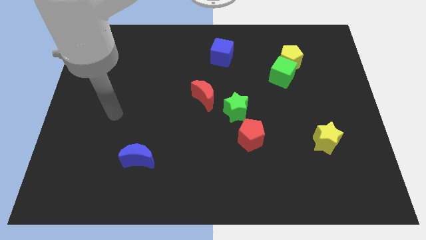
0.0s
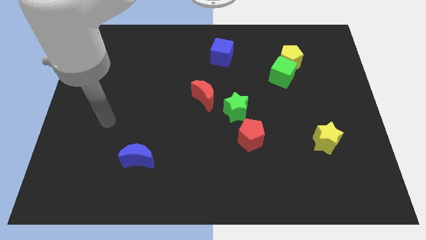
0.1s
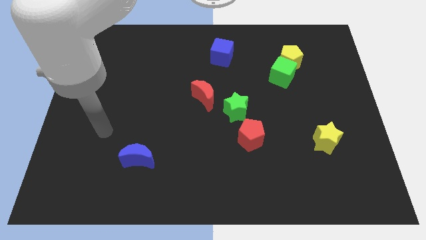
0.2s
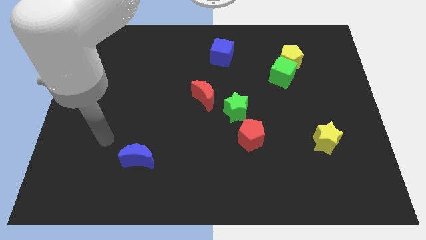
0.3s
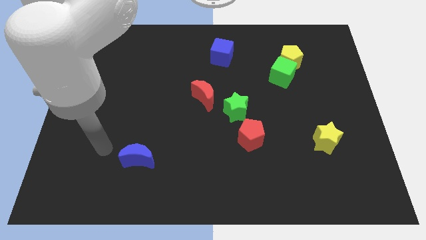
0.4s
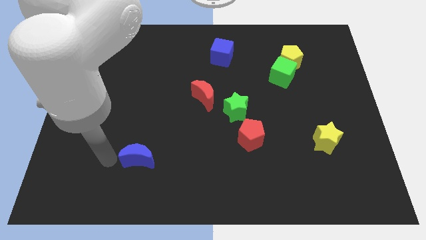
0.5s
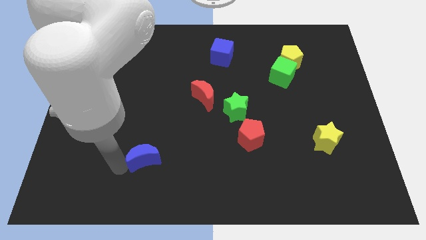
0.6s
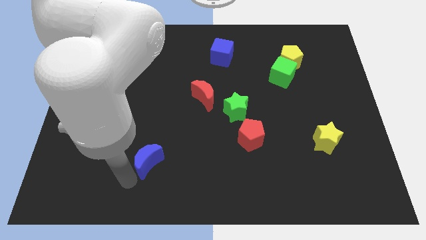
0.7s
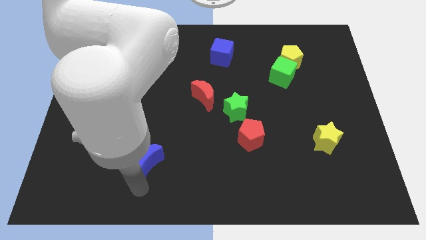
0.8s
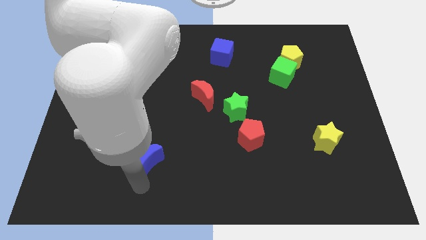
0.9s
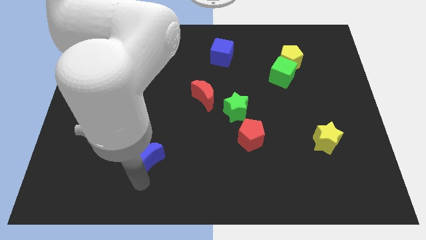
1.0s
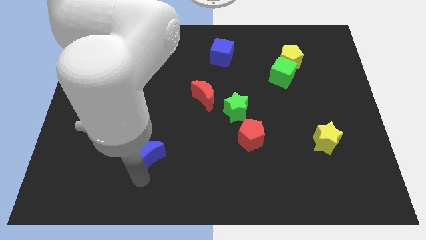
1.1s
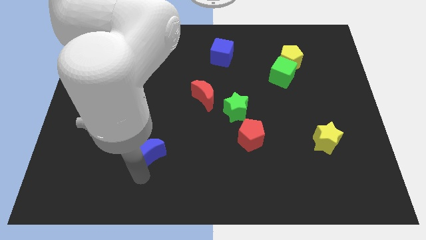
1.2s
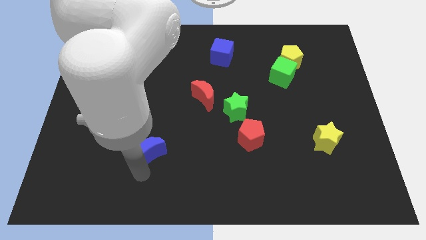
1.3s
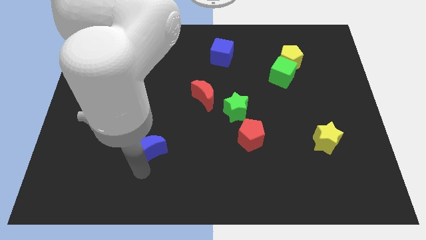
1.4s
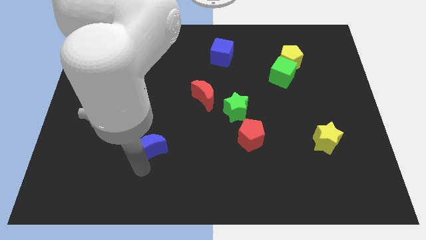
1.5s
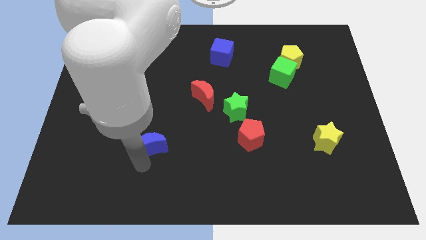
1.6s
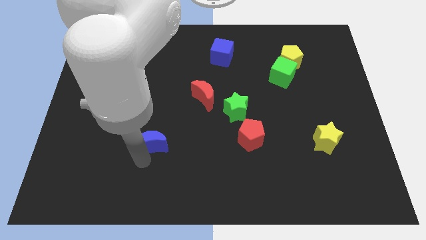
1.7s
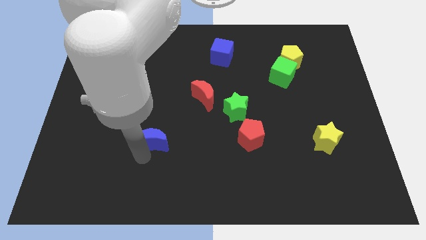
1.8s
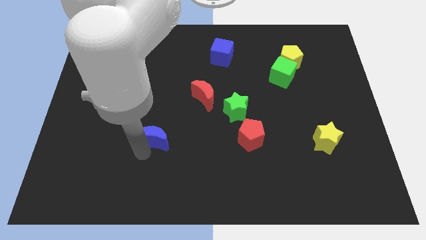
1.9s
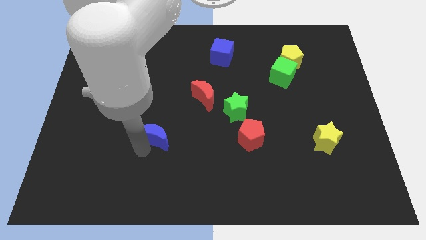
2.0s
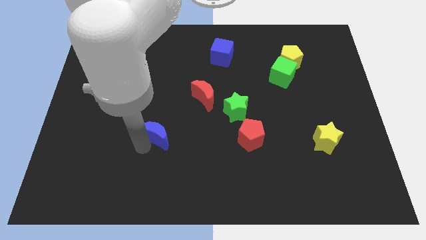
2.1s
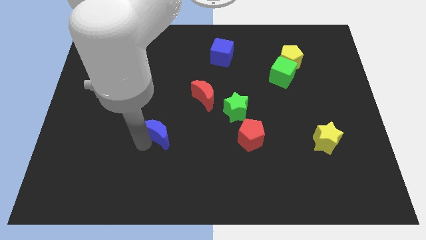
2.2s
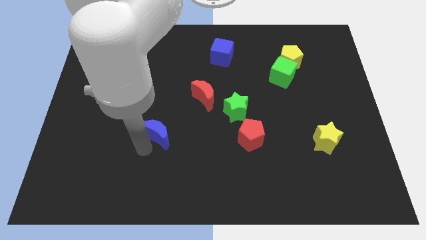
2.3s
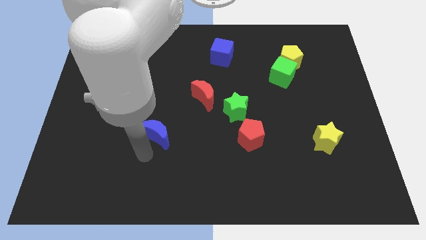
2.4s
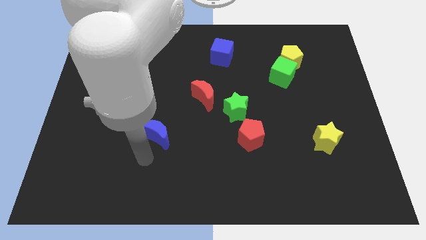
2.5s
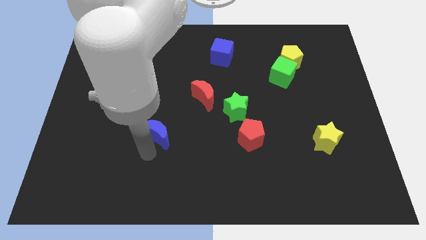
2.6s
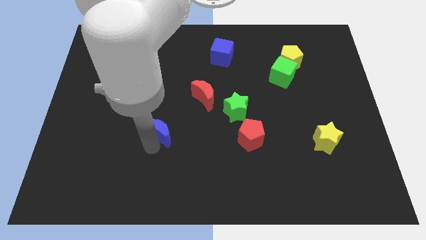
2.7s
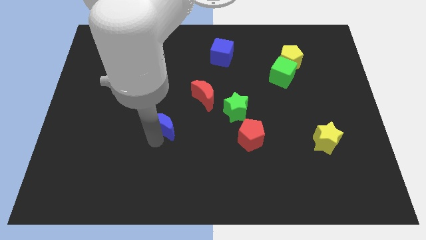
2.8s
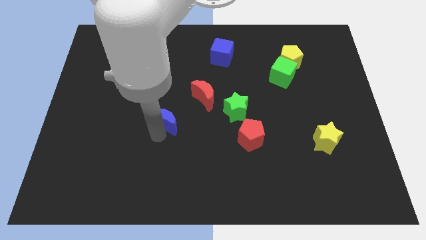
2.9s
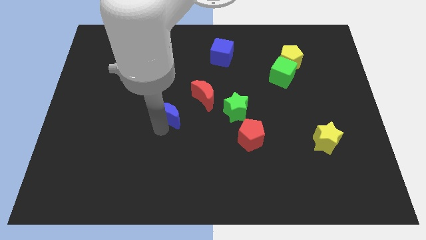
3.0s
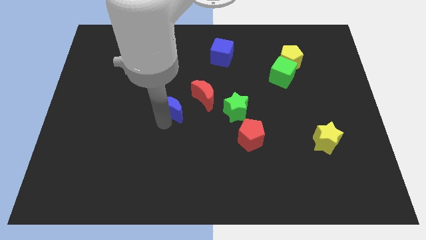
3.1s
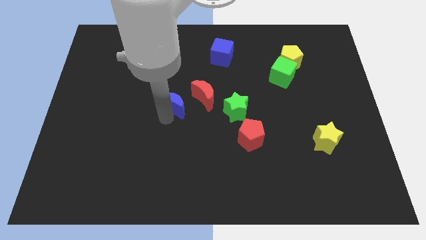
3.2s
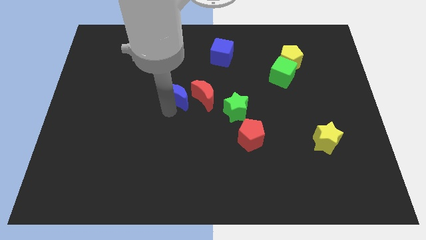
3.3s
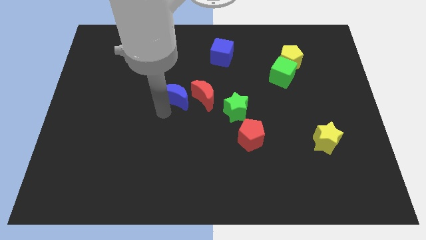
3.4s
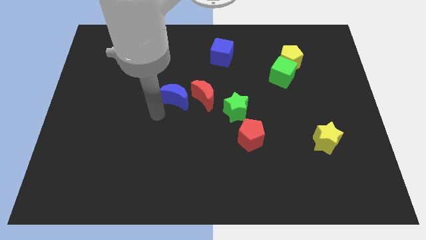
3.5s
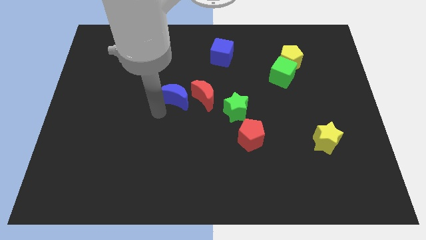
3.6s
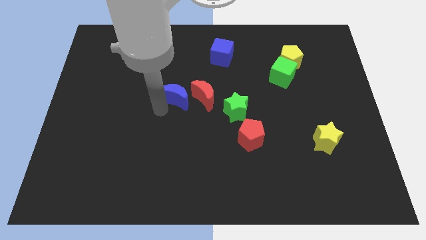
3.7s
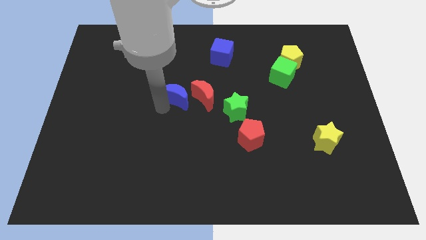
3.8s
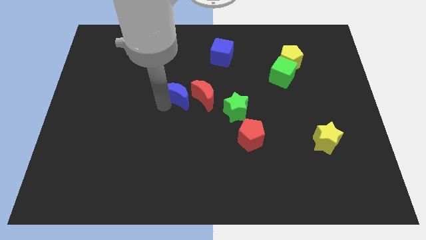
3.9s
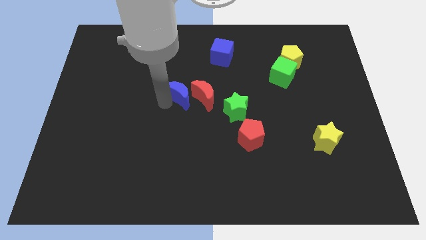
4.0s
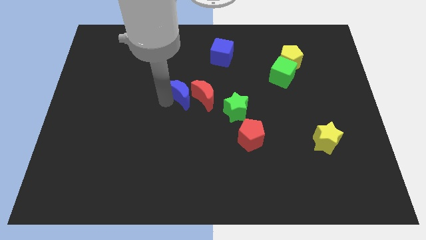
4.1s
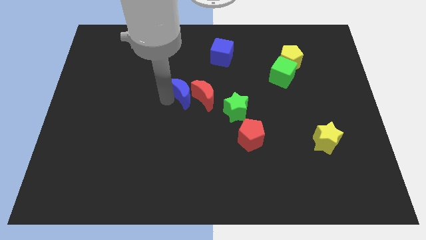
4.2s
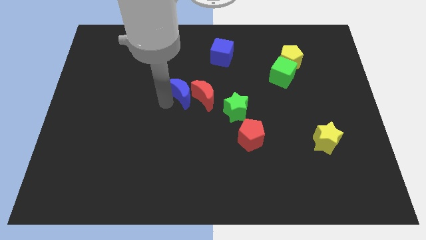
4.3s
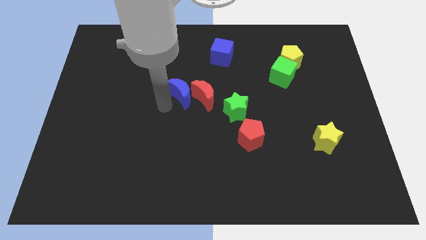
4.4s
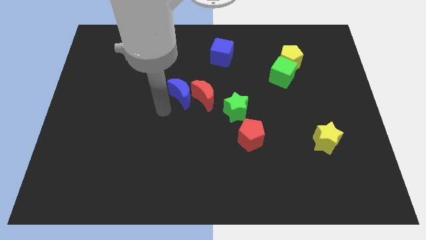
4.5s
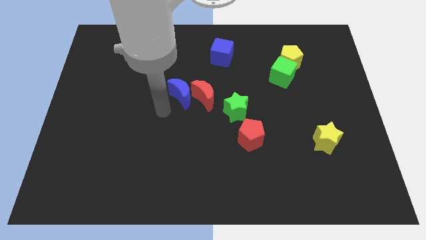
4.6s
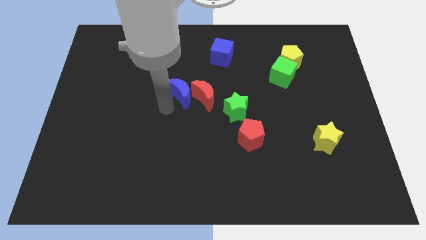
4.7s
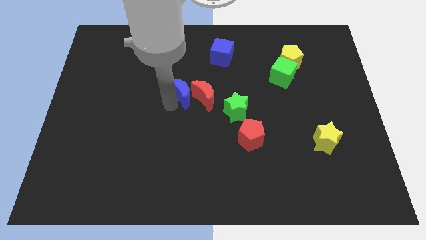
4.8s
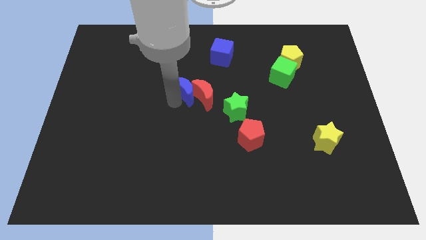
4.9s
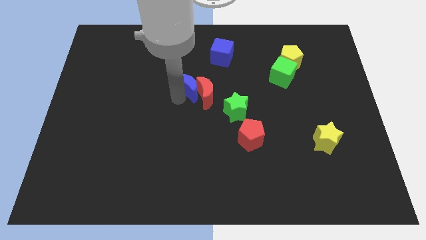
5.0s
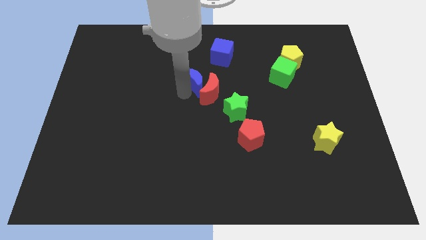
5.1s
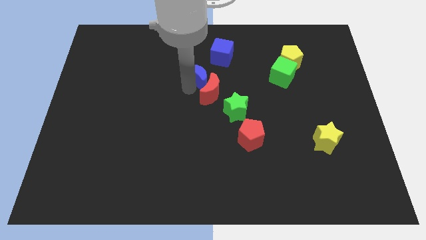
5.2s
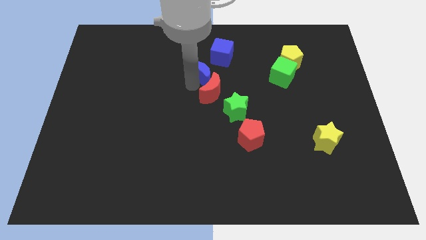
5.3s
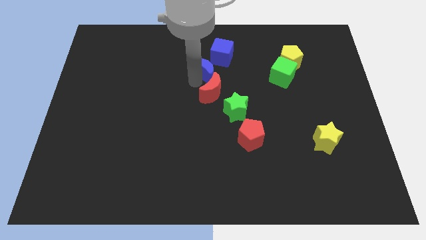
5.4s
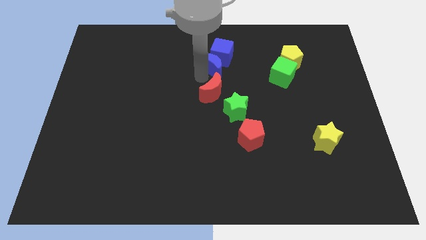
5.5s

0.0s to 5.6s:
slide the blue moon next to the blue cube

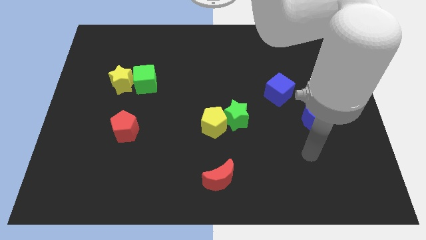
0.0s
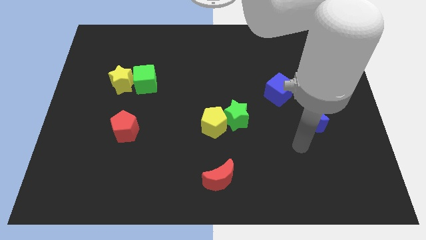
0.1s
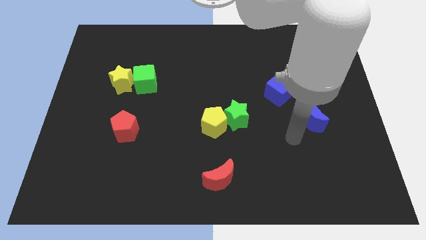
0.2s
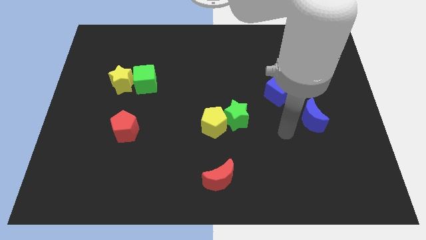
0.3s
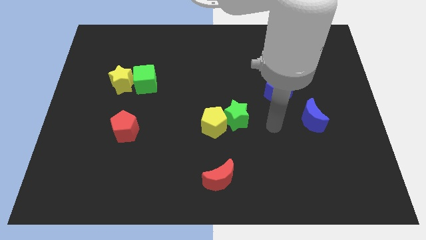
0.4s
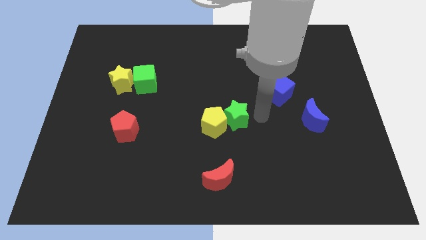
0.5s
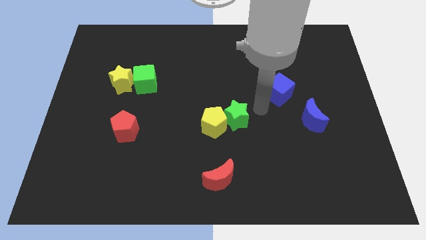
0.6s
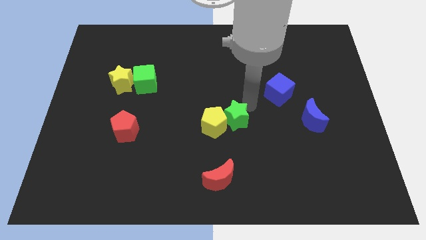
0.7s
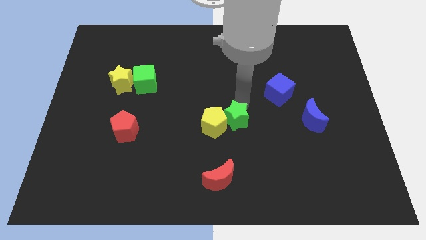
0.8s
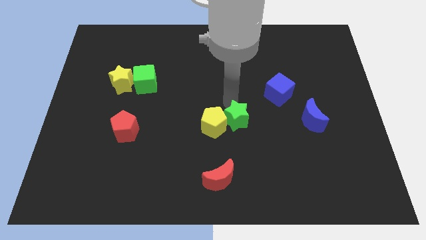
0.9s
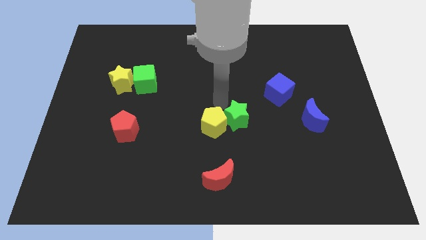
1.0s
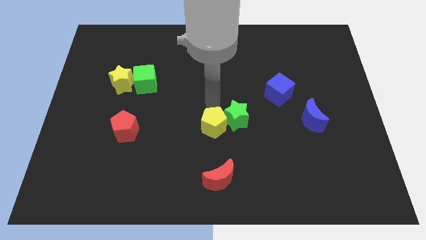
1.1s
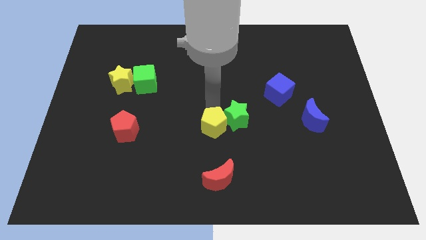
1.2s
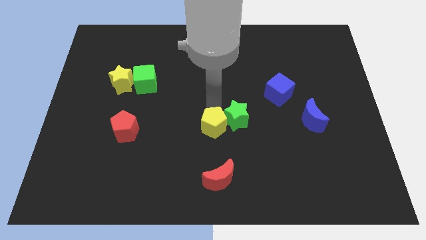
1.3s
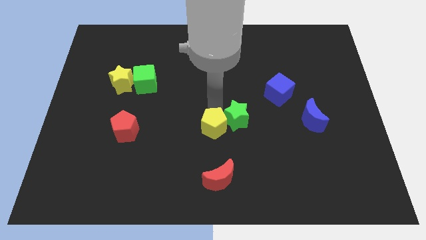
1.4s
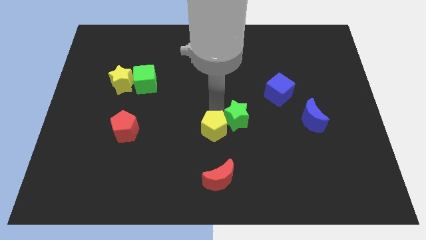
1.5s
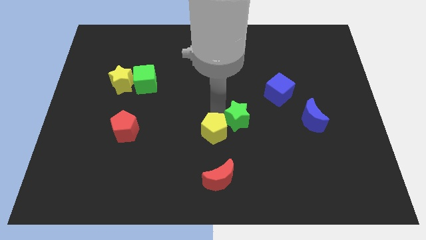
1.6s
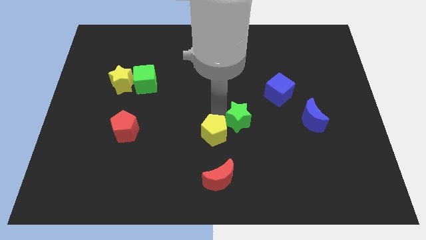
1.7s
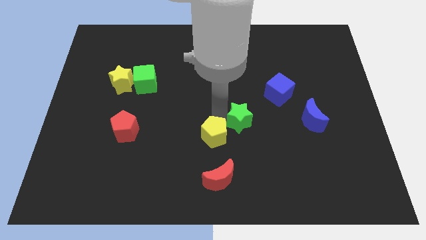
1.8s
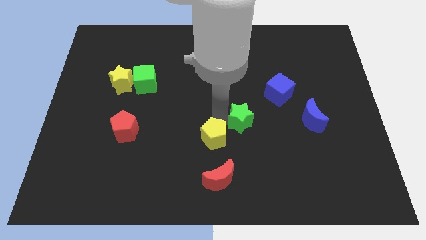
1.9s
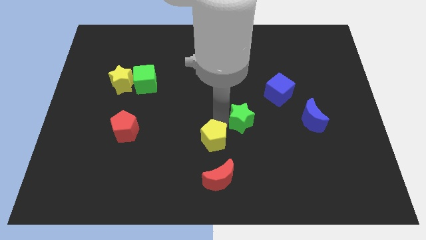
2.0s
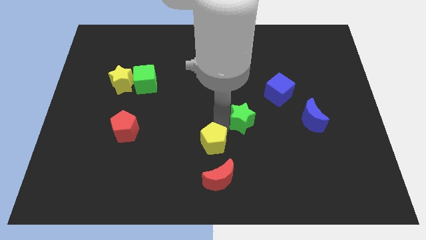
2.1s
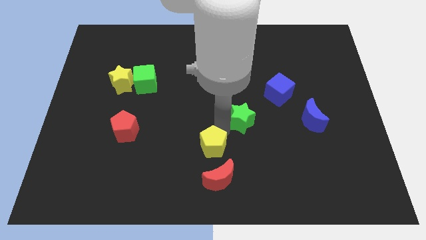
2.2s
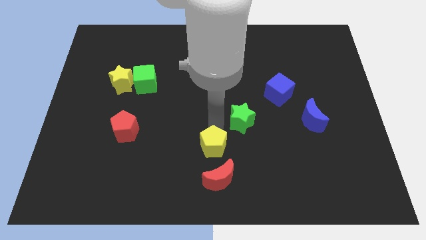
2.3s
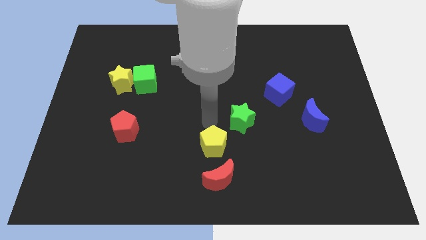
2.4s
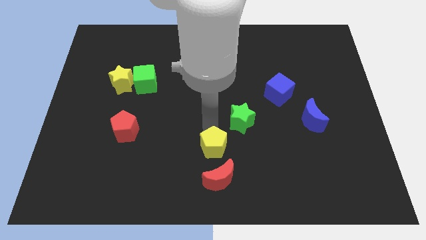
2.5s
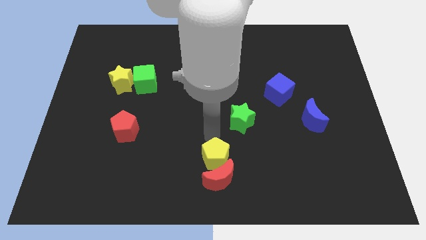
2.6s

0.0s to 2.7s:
push the yellow pentagon to the red moon
